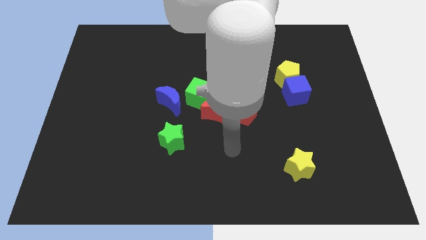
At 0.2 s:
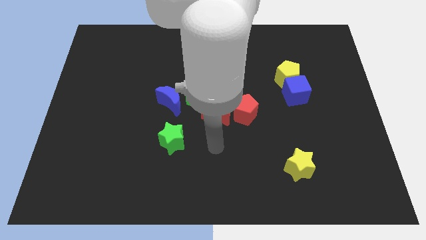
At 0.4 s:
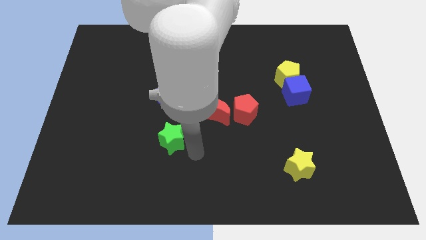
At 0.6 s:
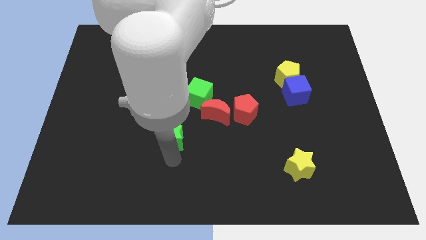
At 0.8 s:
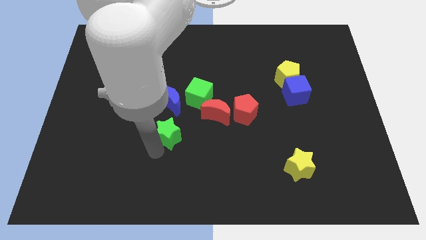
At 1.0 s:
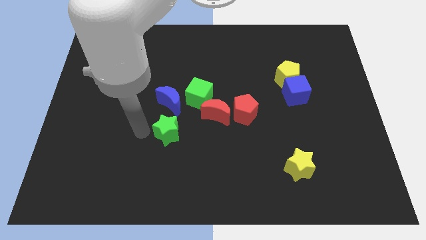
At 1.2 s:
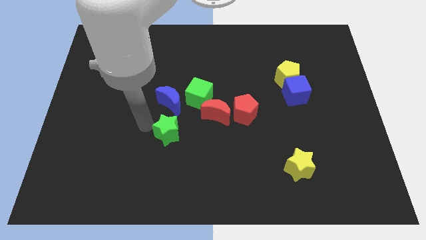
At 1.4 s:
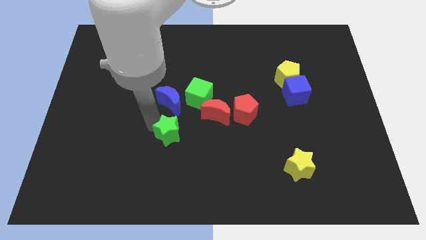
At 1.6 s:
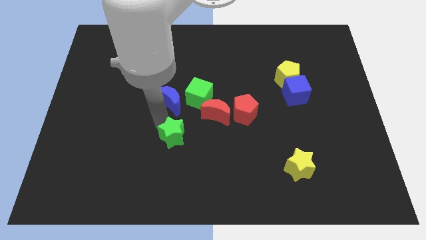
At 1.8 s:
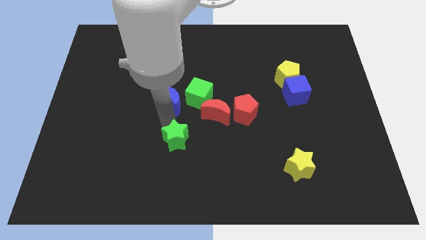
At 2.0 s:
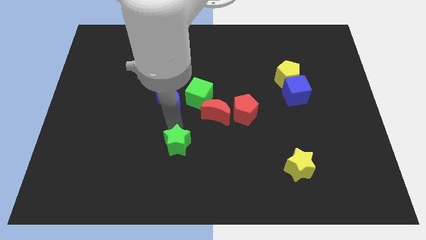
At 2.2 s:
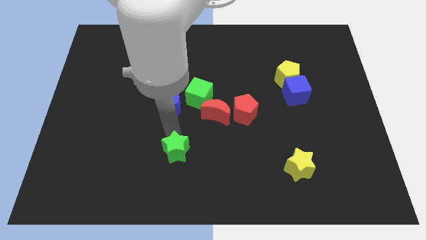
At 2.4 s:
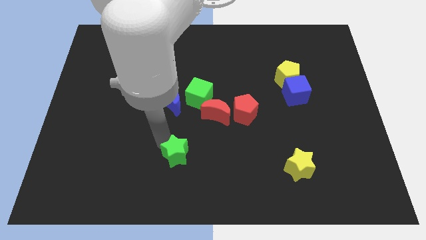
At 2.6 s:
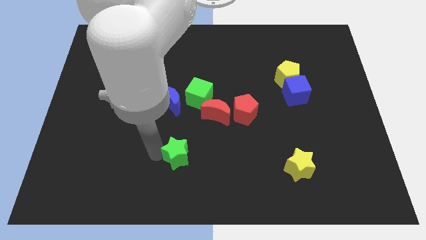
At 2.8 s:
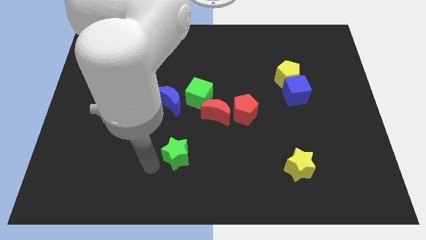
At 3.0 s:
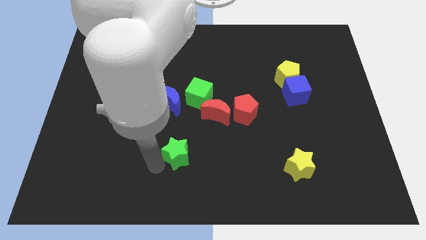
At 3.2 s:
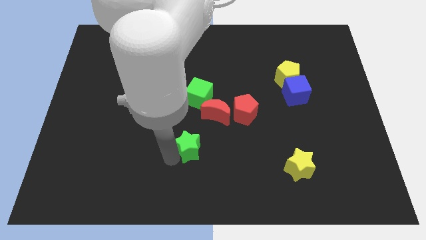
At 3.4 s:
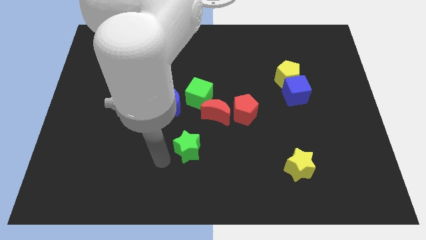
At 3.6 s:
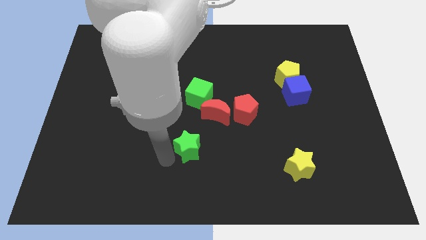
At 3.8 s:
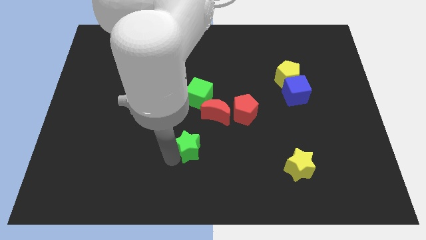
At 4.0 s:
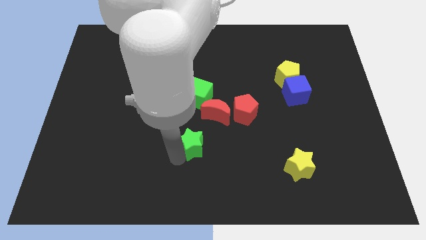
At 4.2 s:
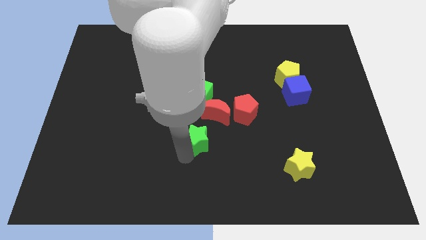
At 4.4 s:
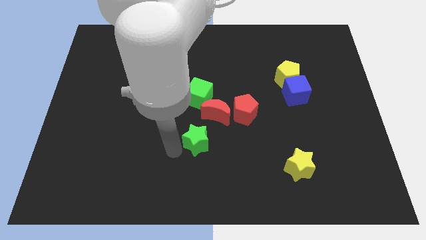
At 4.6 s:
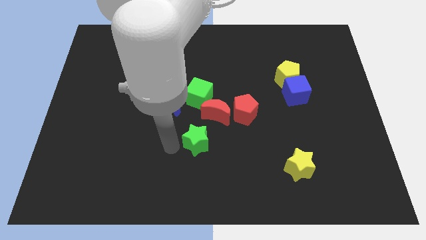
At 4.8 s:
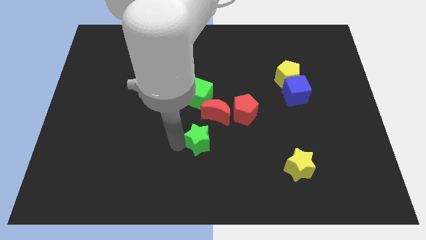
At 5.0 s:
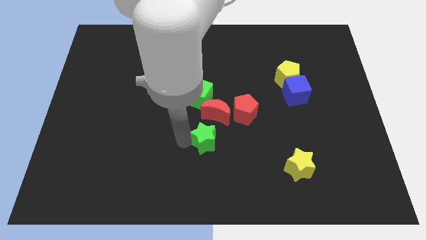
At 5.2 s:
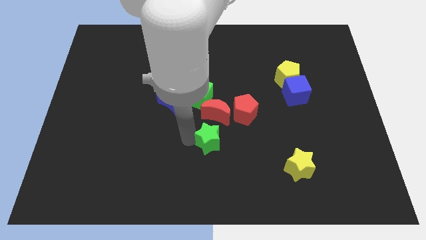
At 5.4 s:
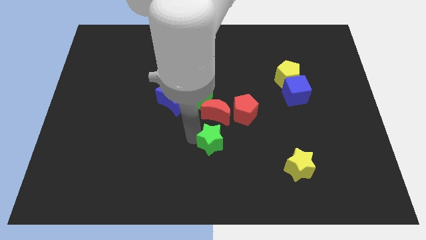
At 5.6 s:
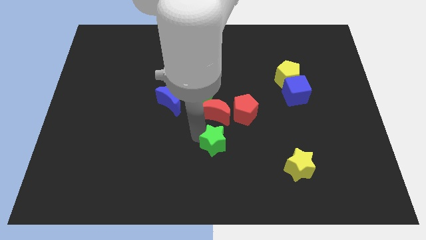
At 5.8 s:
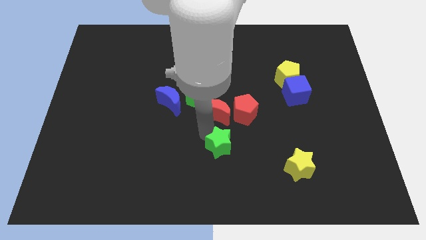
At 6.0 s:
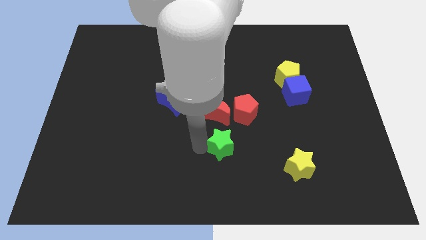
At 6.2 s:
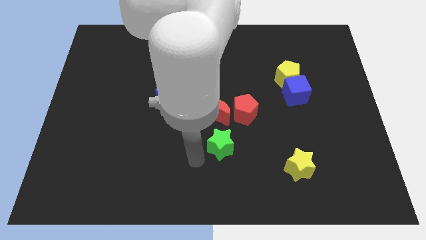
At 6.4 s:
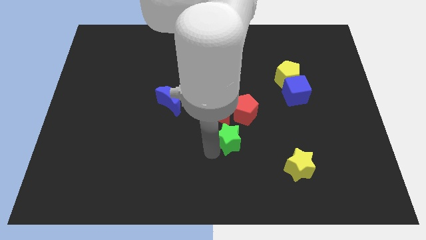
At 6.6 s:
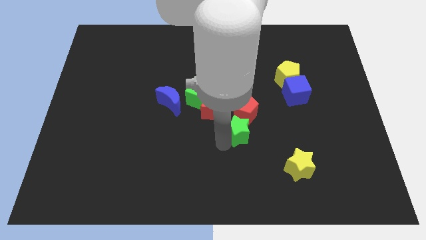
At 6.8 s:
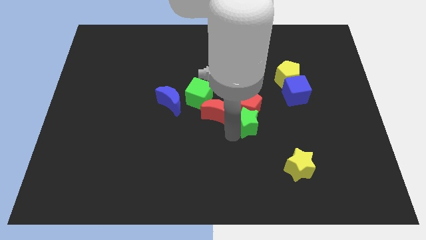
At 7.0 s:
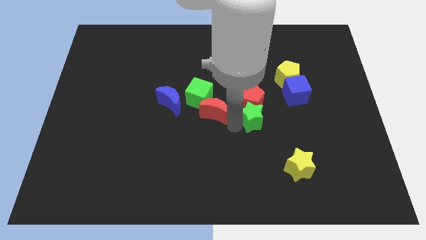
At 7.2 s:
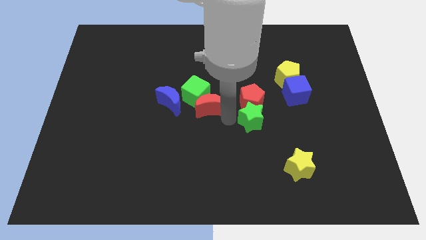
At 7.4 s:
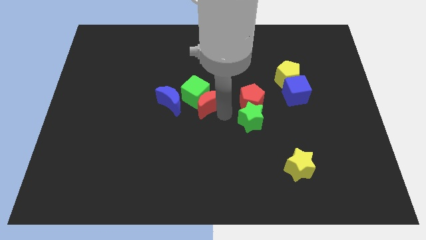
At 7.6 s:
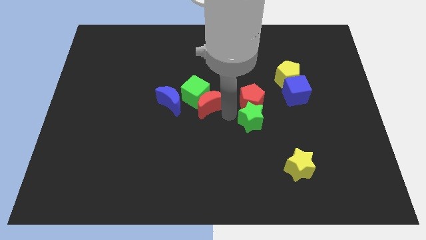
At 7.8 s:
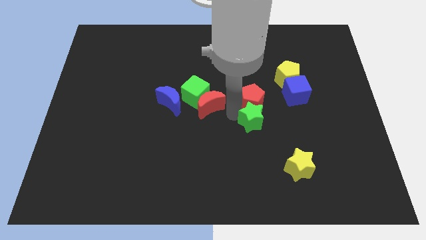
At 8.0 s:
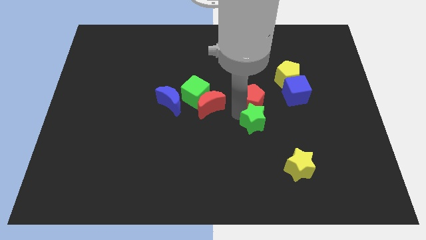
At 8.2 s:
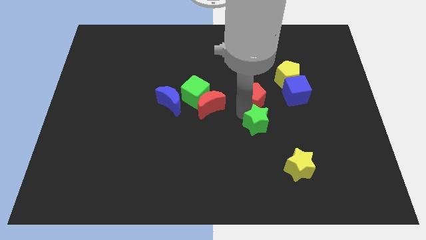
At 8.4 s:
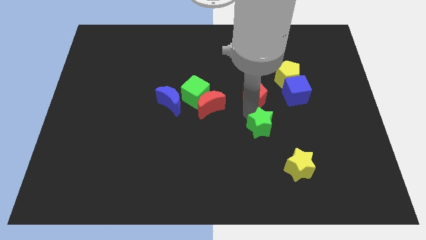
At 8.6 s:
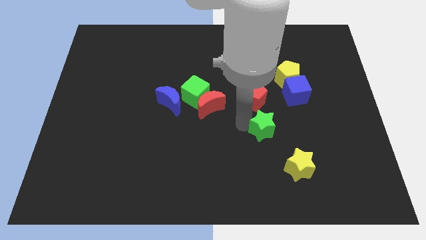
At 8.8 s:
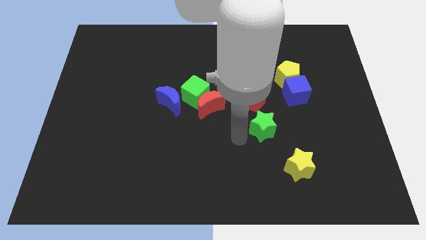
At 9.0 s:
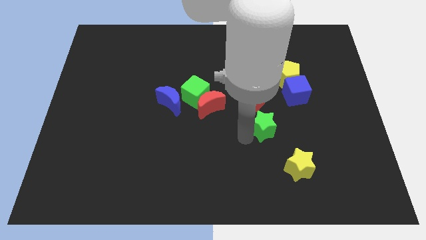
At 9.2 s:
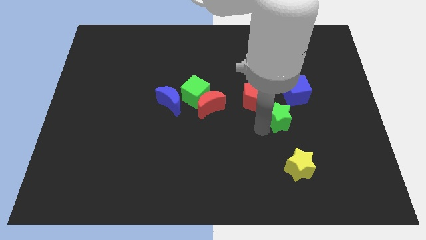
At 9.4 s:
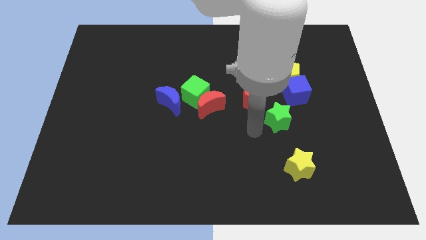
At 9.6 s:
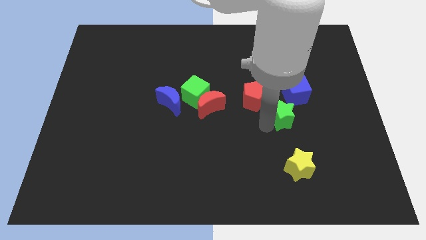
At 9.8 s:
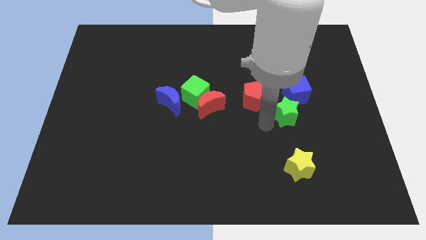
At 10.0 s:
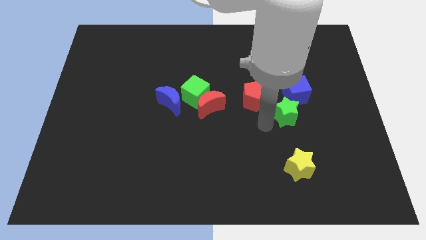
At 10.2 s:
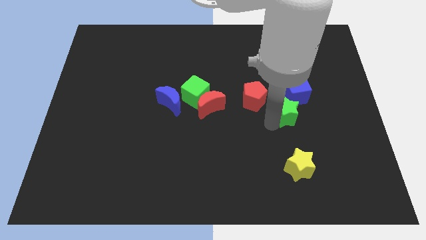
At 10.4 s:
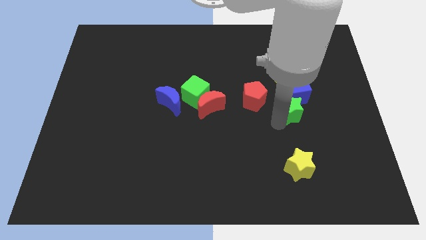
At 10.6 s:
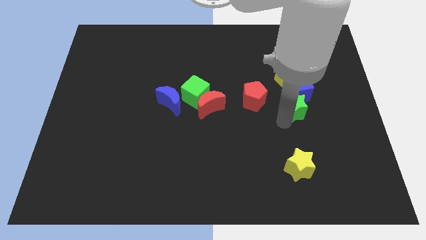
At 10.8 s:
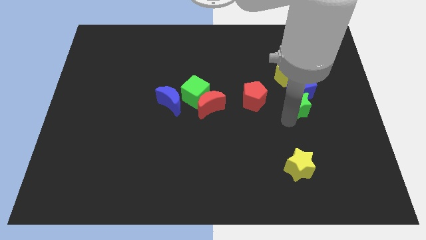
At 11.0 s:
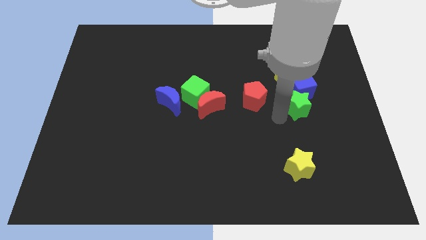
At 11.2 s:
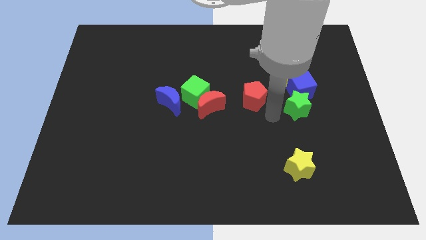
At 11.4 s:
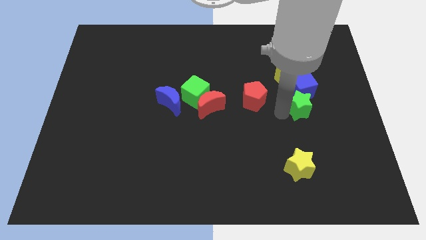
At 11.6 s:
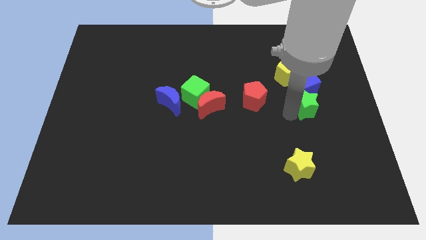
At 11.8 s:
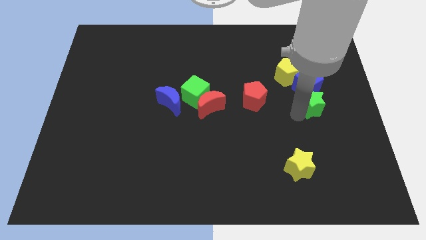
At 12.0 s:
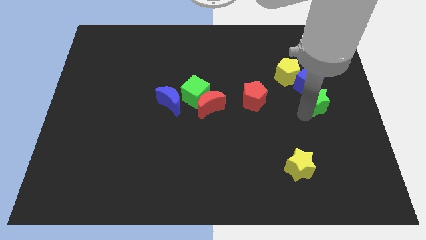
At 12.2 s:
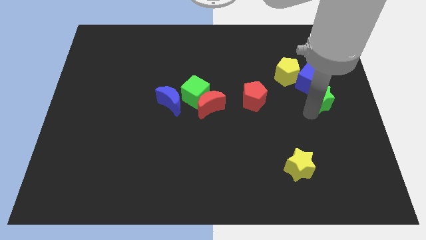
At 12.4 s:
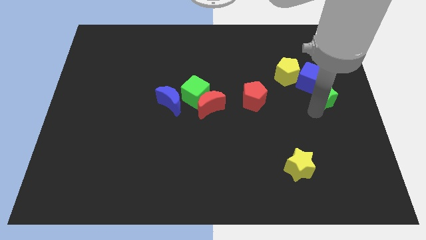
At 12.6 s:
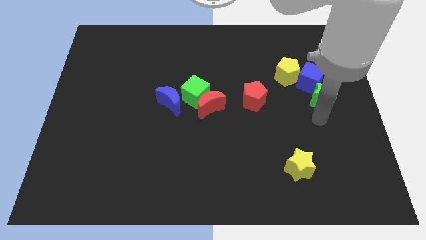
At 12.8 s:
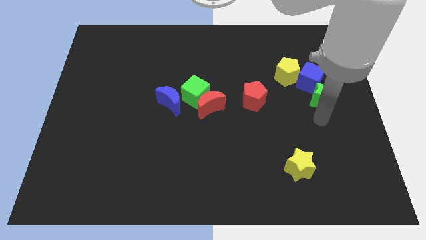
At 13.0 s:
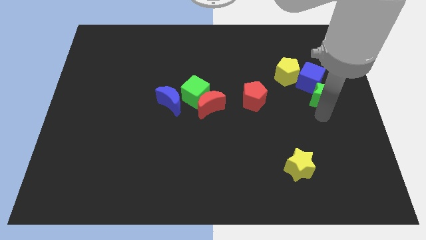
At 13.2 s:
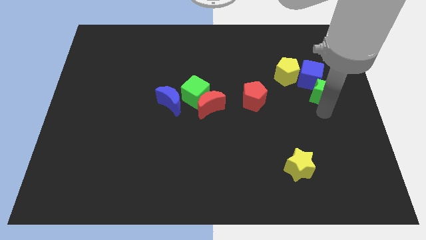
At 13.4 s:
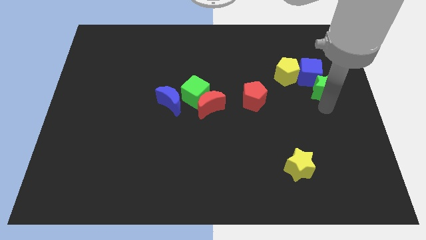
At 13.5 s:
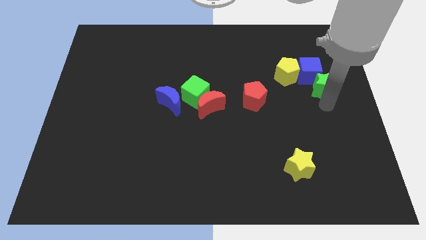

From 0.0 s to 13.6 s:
slide the green star just right of the yellow pentagon

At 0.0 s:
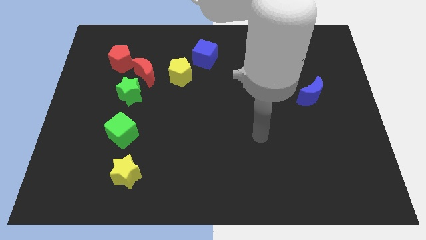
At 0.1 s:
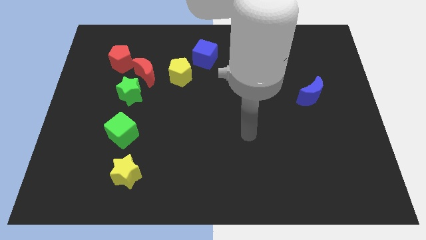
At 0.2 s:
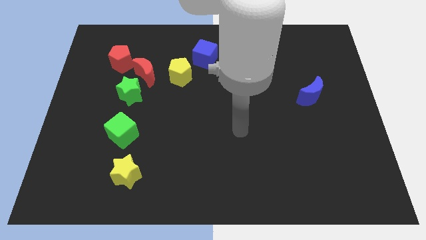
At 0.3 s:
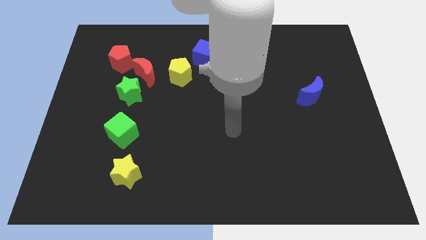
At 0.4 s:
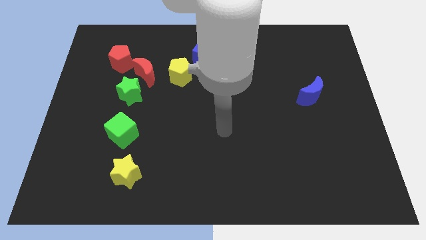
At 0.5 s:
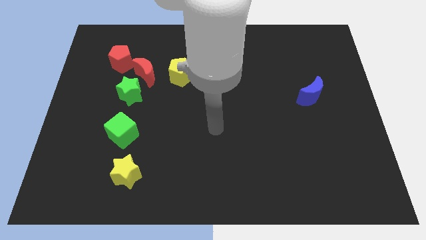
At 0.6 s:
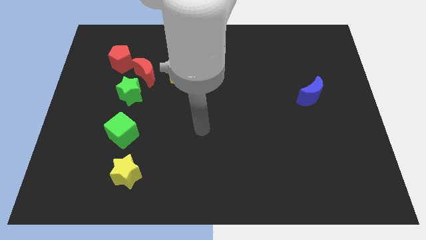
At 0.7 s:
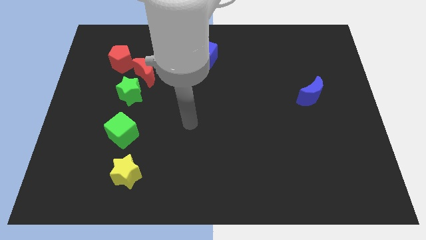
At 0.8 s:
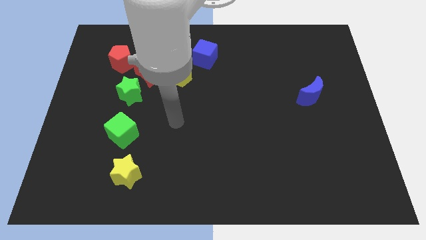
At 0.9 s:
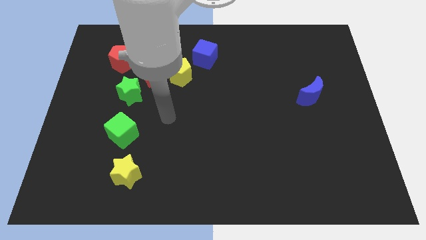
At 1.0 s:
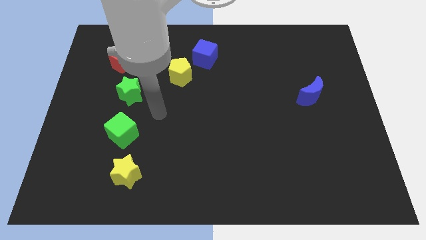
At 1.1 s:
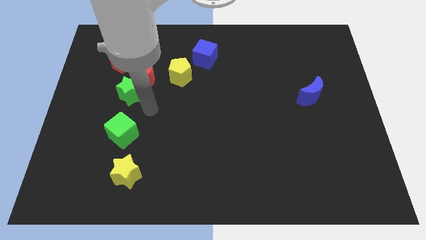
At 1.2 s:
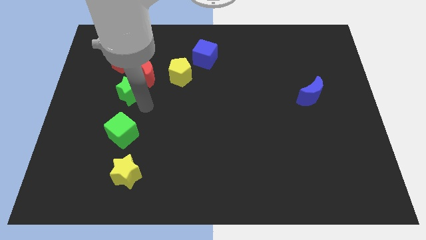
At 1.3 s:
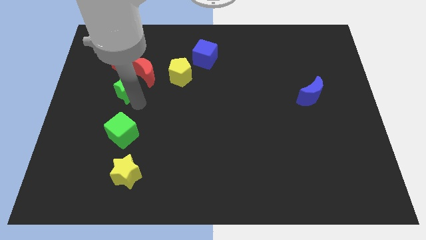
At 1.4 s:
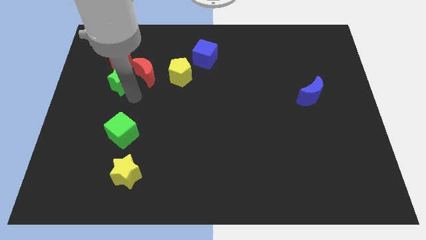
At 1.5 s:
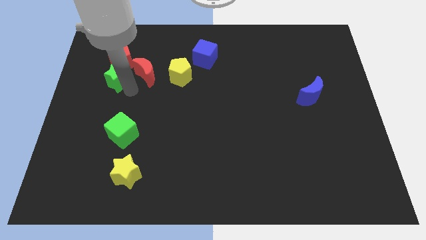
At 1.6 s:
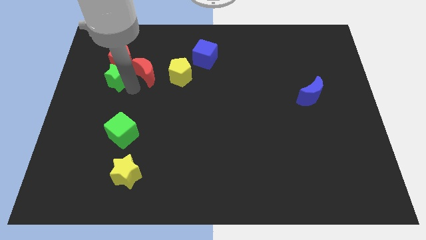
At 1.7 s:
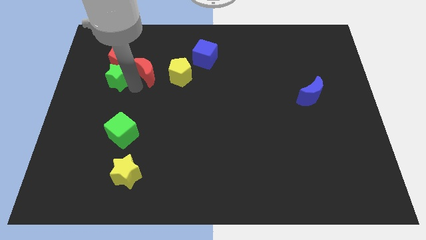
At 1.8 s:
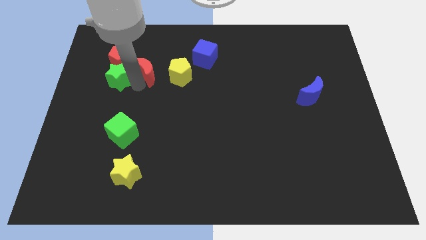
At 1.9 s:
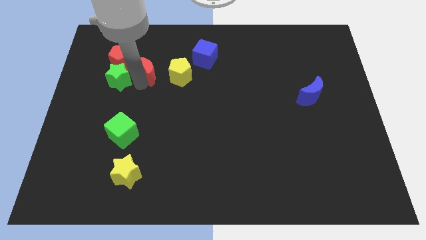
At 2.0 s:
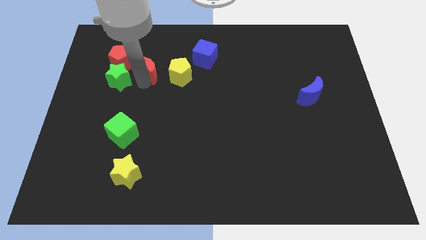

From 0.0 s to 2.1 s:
push the red moon to the top left side of the yellow pentagon
